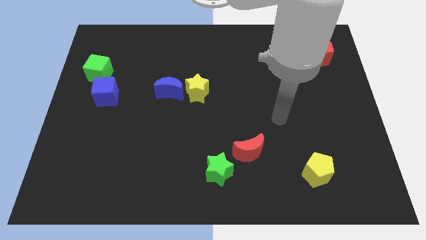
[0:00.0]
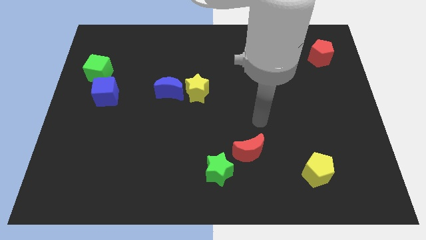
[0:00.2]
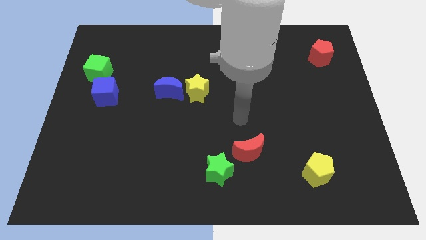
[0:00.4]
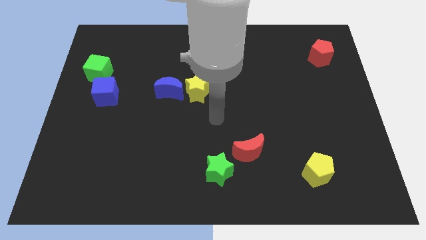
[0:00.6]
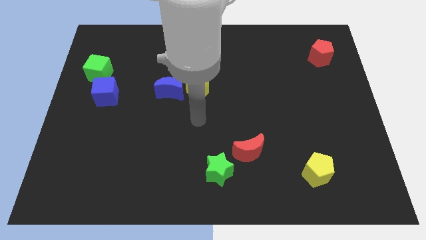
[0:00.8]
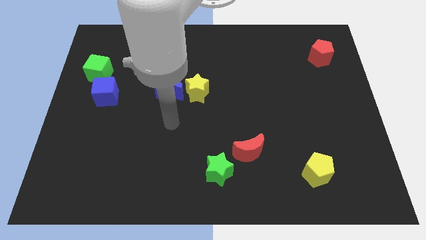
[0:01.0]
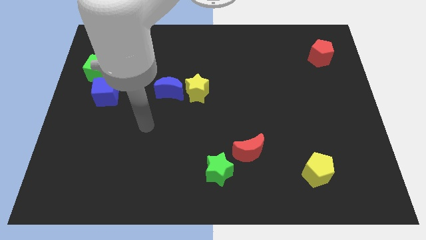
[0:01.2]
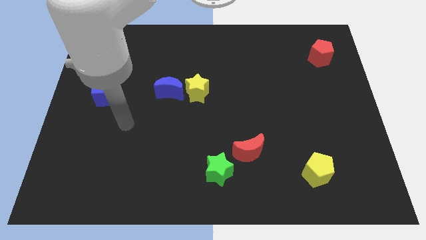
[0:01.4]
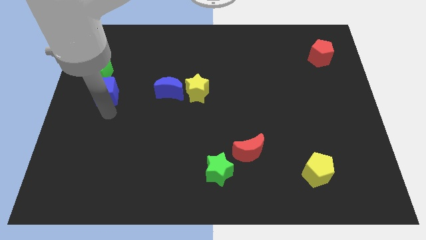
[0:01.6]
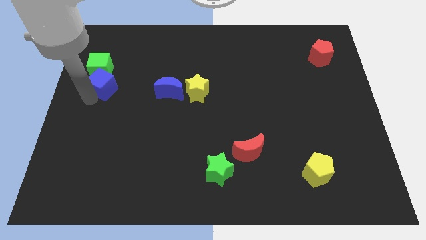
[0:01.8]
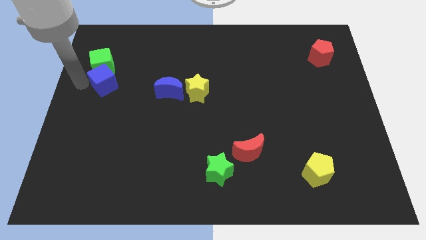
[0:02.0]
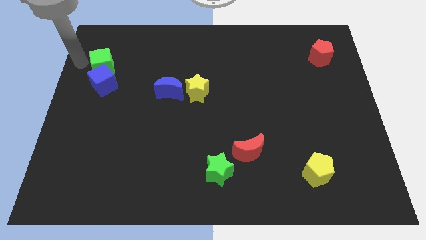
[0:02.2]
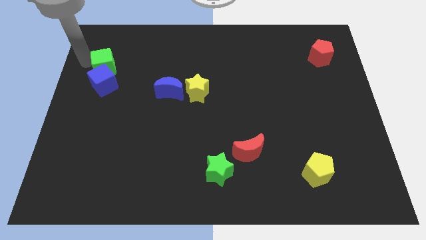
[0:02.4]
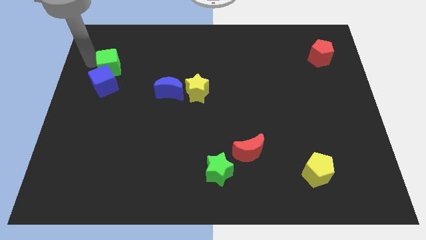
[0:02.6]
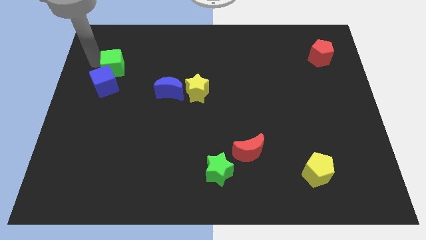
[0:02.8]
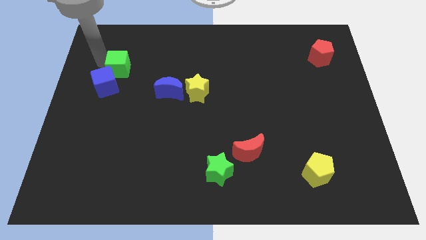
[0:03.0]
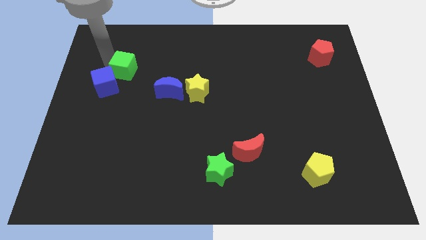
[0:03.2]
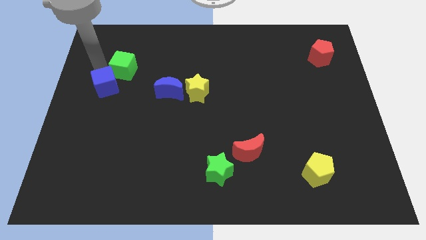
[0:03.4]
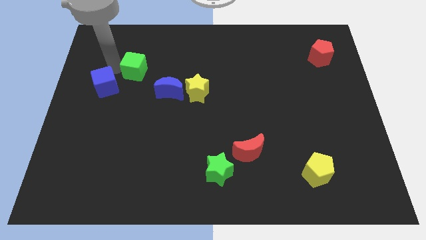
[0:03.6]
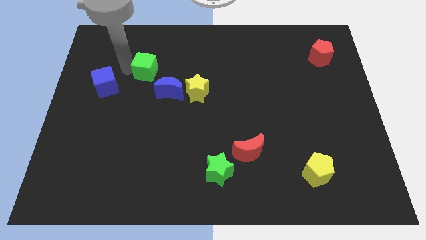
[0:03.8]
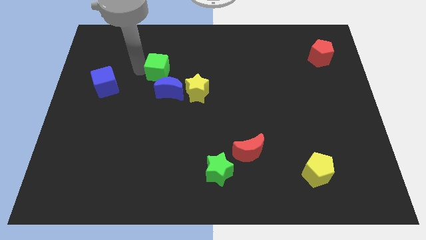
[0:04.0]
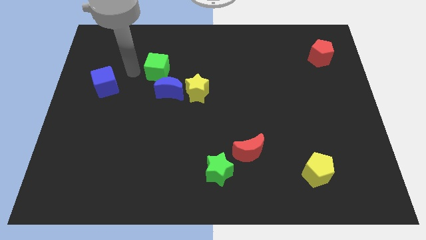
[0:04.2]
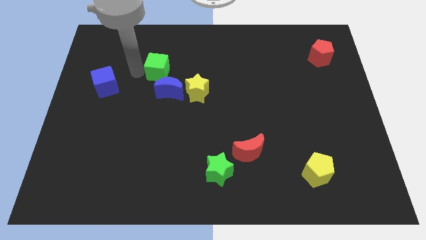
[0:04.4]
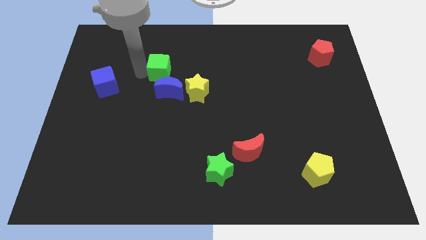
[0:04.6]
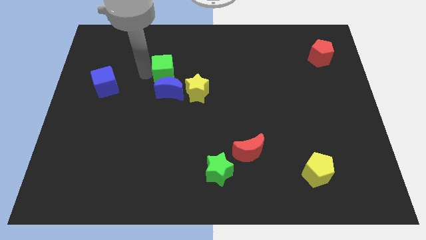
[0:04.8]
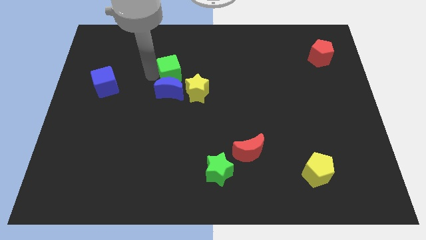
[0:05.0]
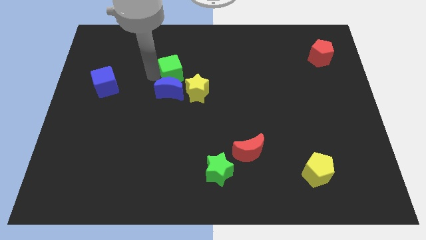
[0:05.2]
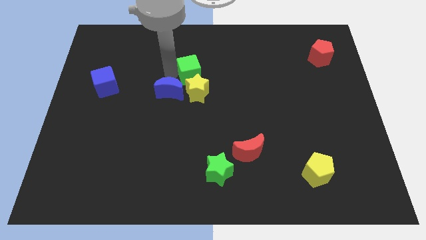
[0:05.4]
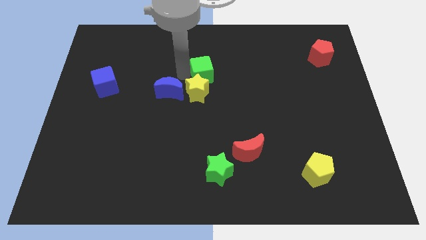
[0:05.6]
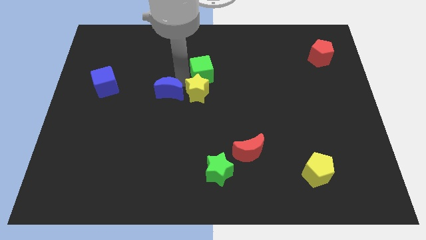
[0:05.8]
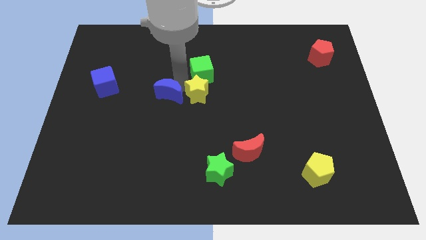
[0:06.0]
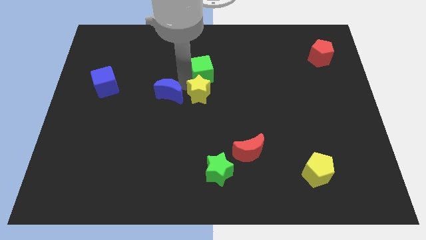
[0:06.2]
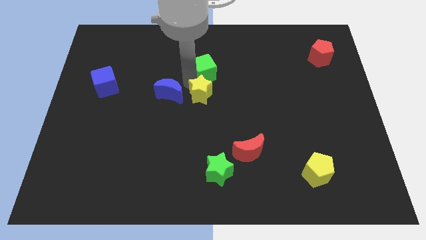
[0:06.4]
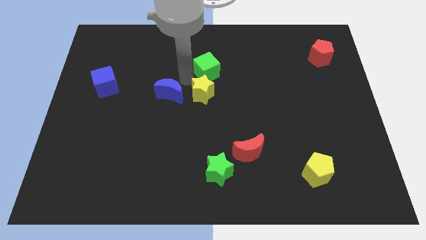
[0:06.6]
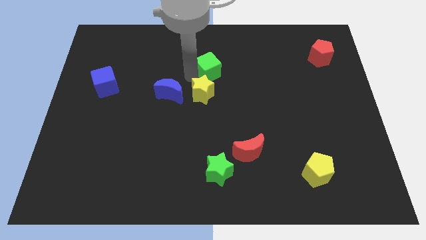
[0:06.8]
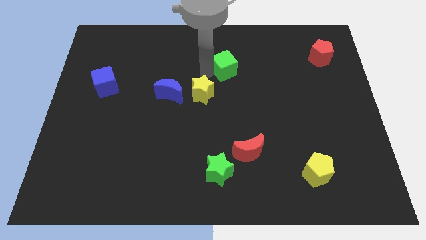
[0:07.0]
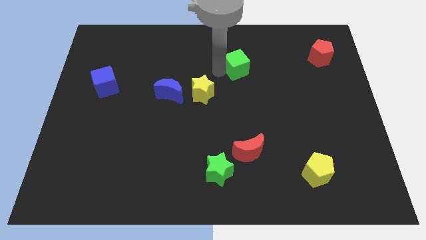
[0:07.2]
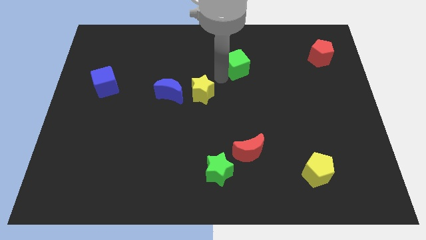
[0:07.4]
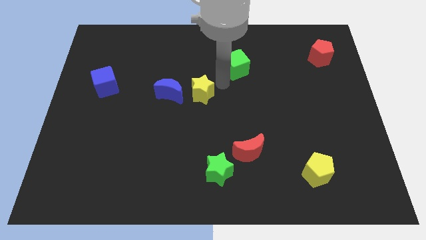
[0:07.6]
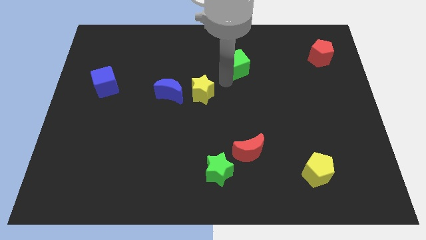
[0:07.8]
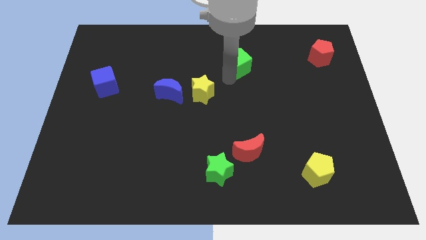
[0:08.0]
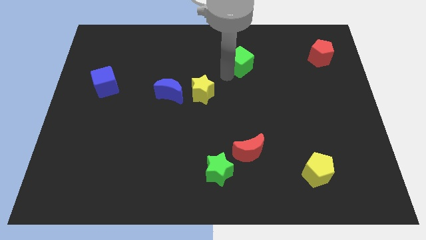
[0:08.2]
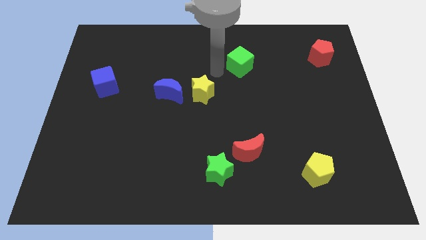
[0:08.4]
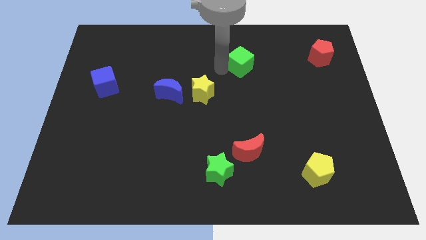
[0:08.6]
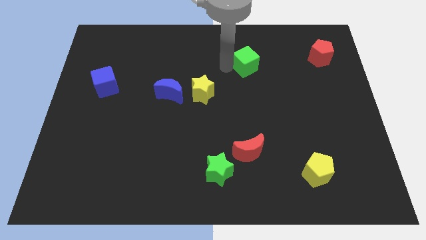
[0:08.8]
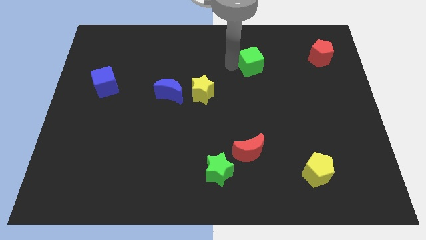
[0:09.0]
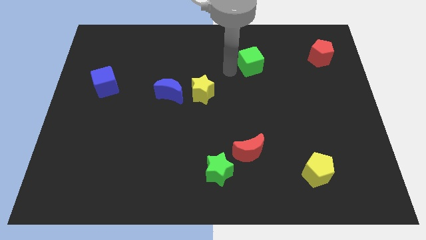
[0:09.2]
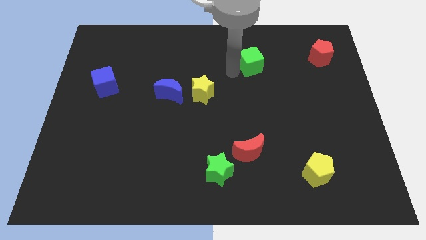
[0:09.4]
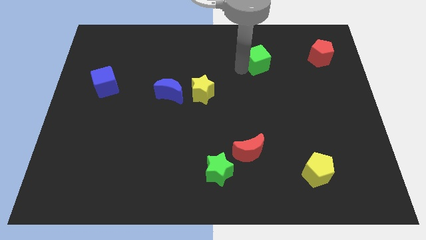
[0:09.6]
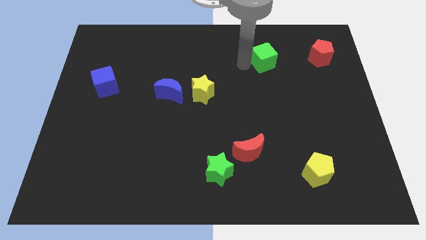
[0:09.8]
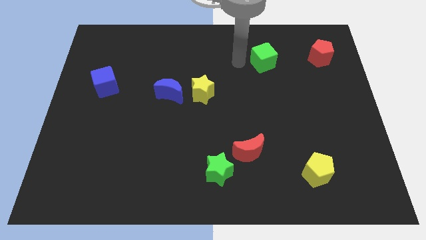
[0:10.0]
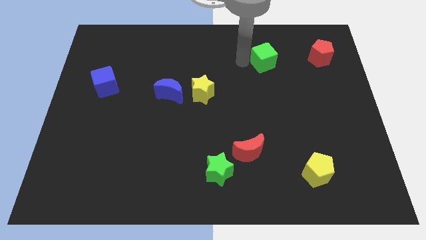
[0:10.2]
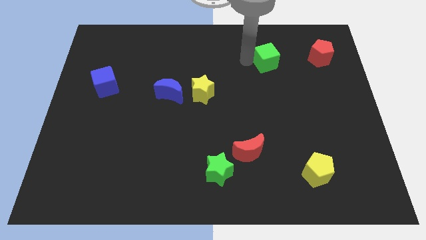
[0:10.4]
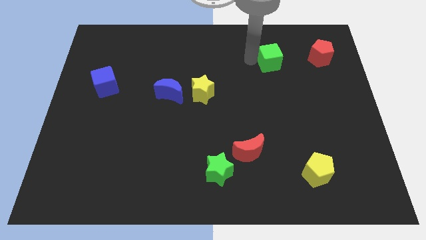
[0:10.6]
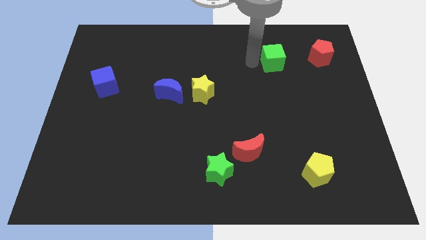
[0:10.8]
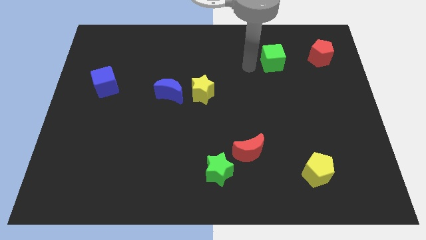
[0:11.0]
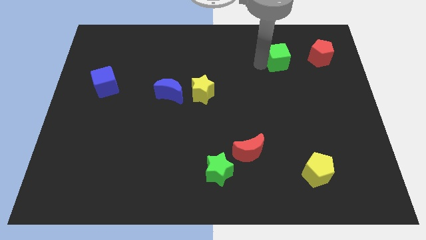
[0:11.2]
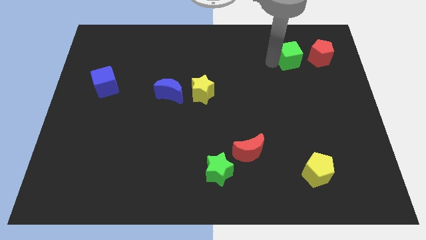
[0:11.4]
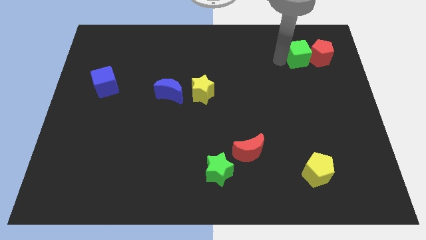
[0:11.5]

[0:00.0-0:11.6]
slide the green cube next to the red pentagon

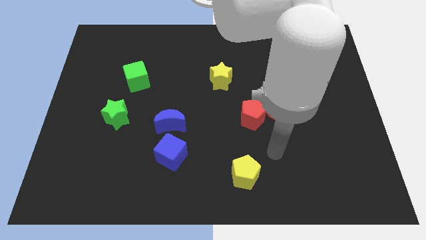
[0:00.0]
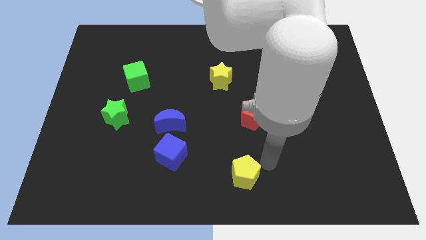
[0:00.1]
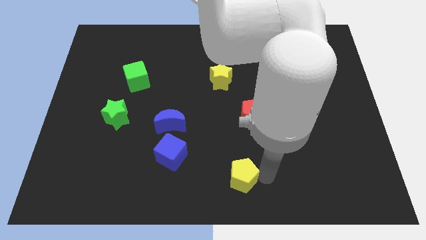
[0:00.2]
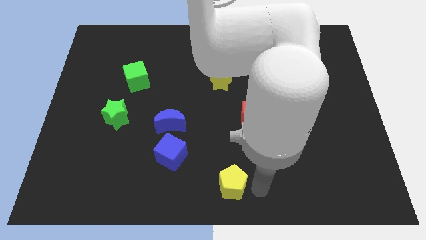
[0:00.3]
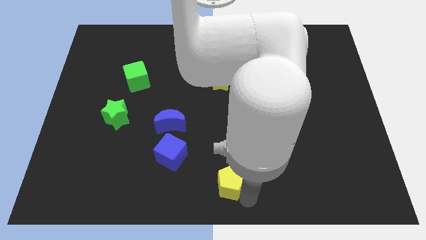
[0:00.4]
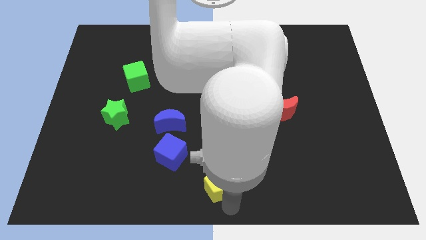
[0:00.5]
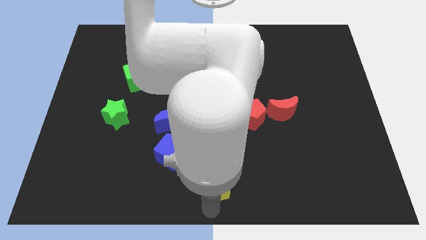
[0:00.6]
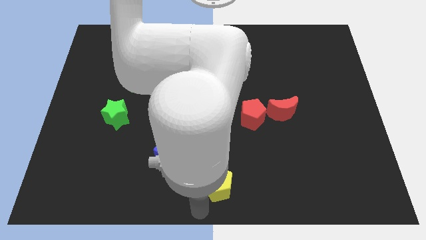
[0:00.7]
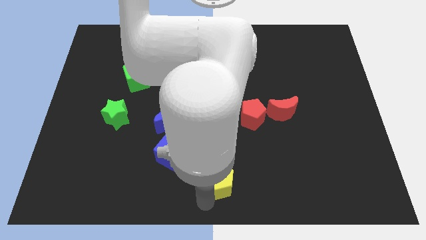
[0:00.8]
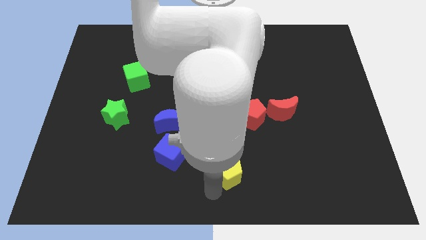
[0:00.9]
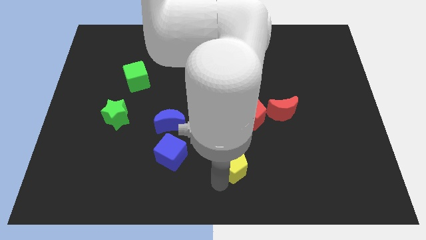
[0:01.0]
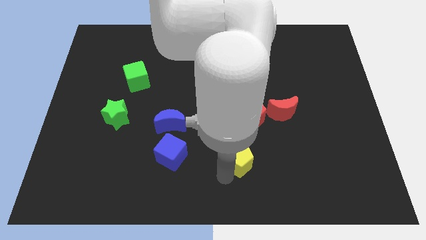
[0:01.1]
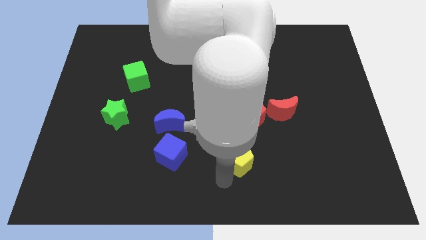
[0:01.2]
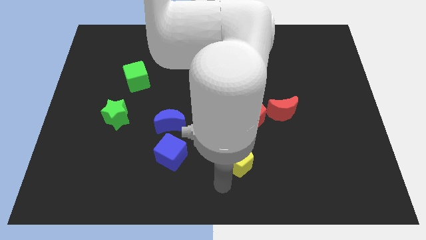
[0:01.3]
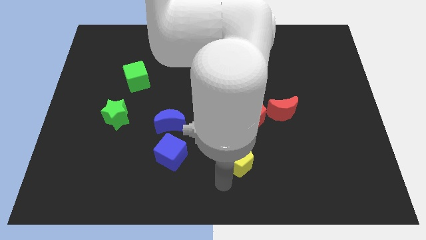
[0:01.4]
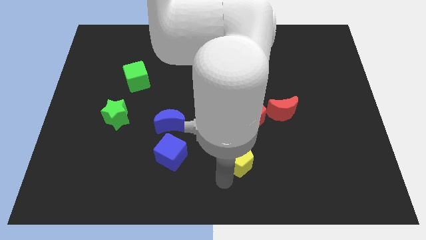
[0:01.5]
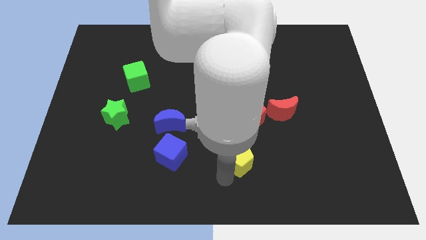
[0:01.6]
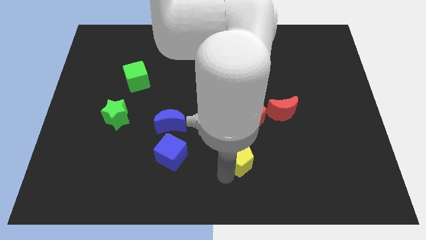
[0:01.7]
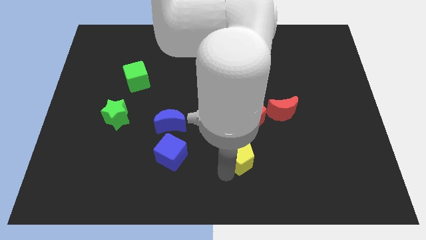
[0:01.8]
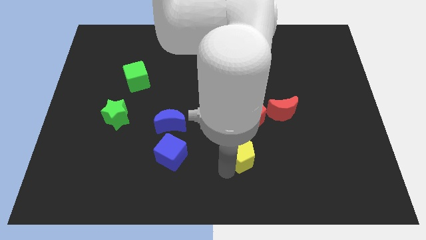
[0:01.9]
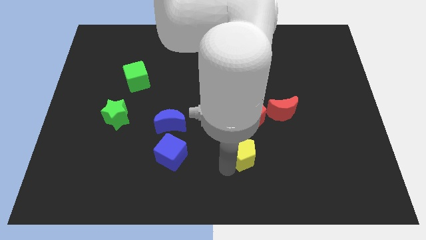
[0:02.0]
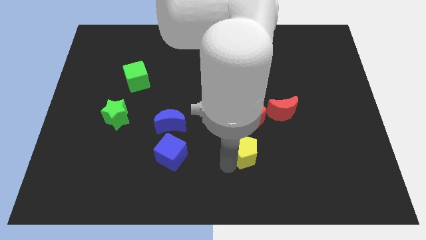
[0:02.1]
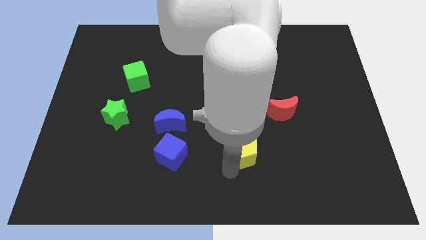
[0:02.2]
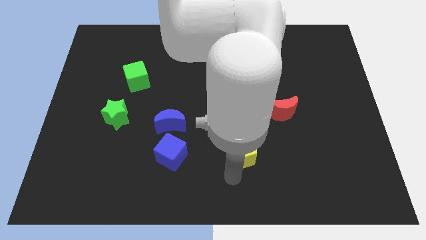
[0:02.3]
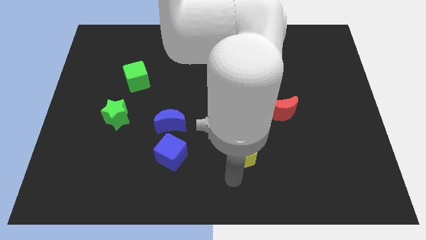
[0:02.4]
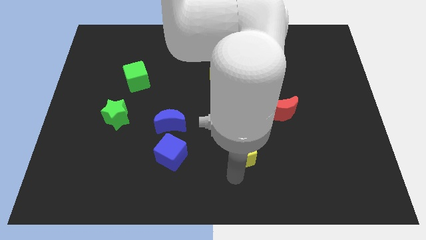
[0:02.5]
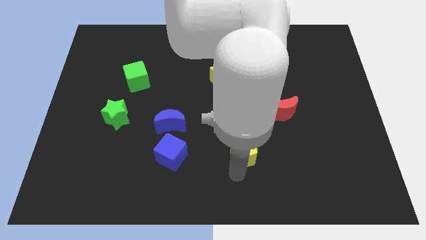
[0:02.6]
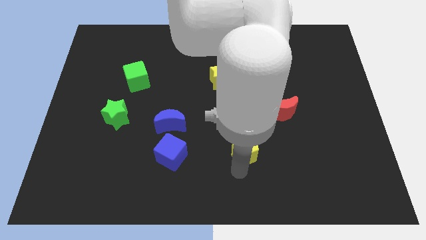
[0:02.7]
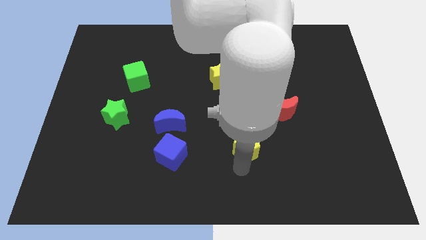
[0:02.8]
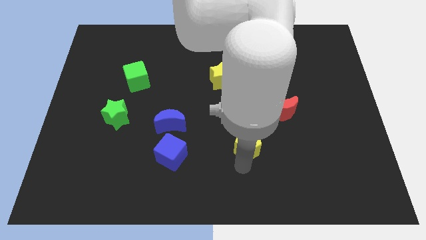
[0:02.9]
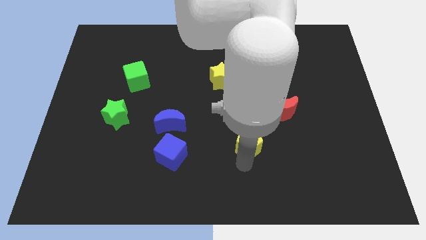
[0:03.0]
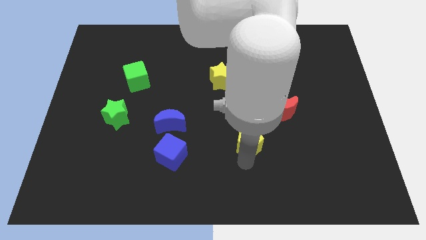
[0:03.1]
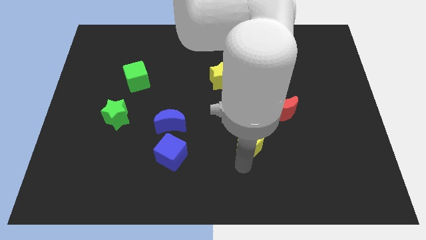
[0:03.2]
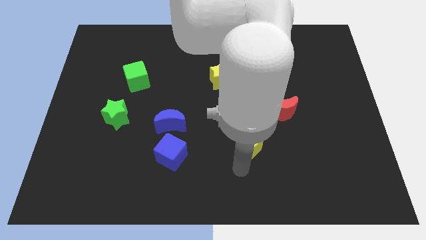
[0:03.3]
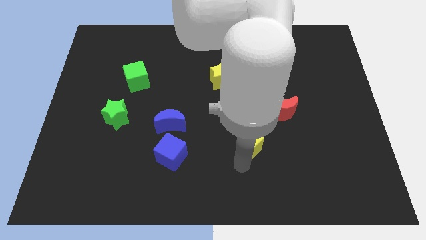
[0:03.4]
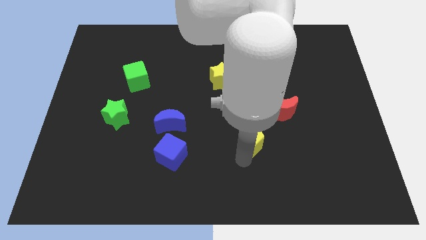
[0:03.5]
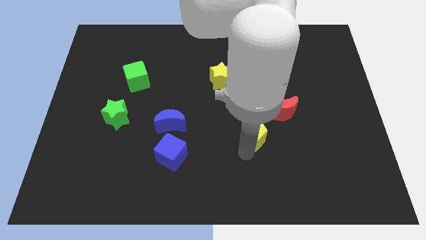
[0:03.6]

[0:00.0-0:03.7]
move the yellow pentagon close to the red pentagon
